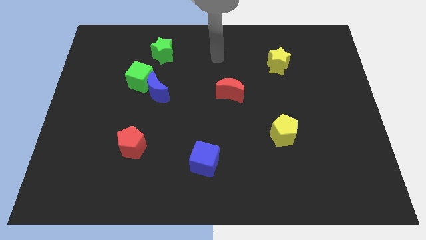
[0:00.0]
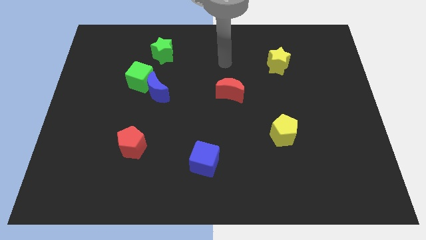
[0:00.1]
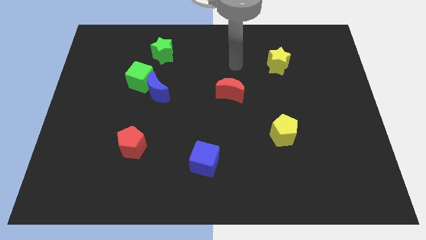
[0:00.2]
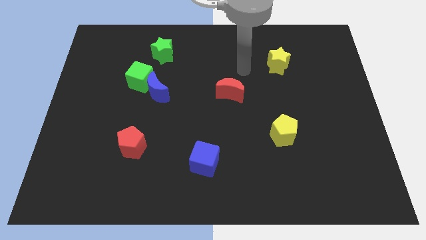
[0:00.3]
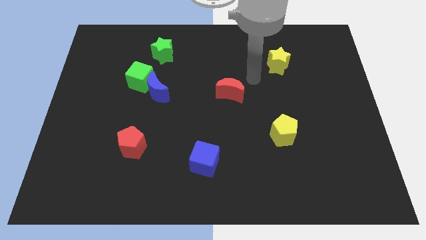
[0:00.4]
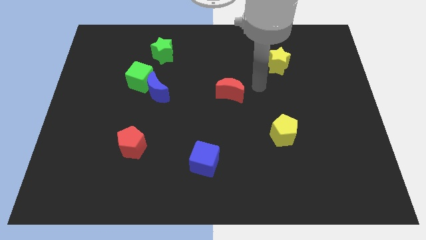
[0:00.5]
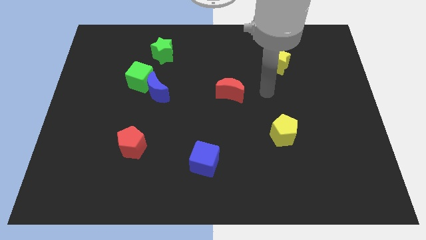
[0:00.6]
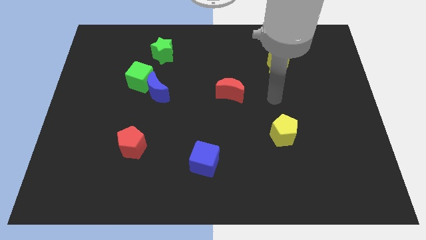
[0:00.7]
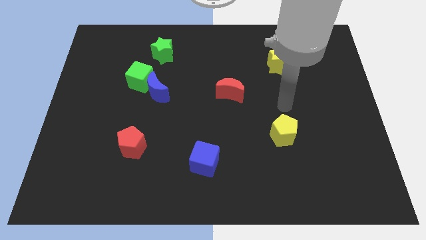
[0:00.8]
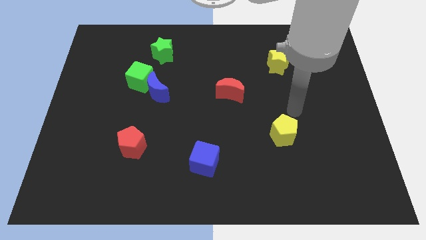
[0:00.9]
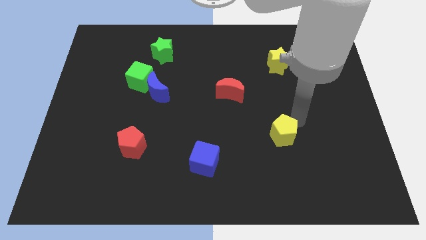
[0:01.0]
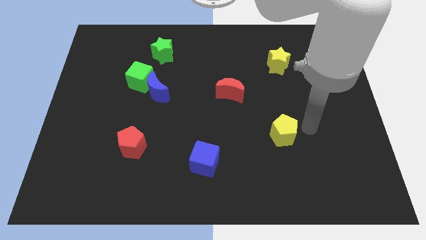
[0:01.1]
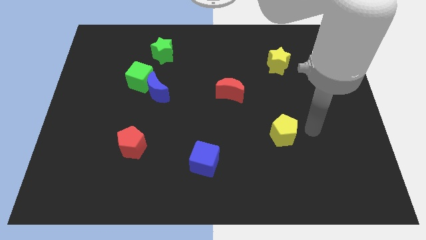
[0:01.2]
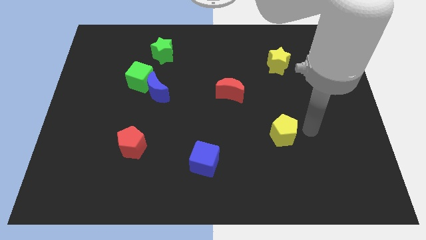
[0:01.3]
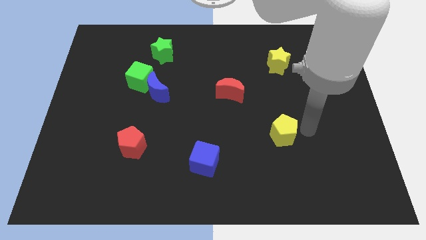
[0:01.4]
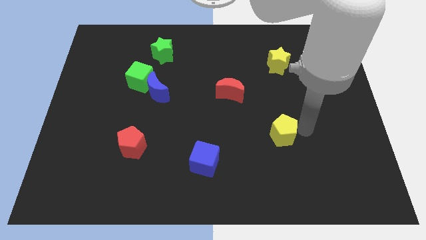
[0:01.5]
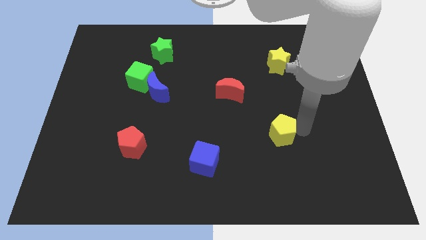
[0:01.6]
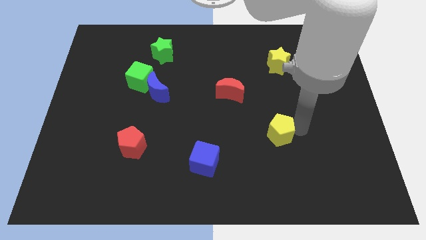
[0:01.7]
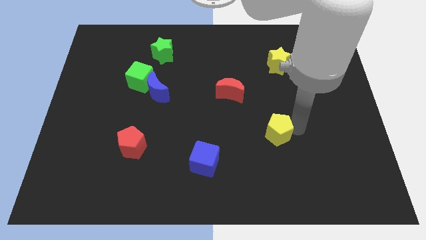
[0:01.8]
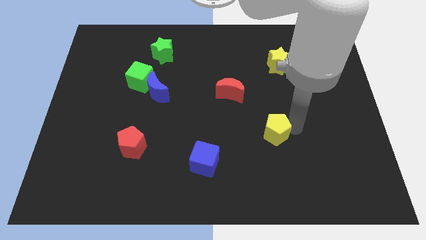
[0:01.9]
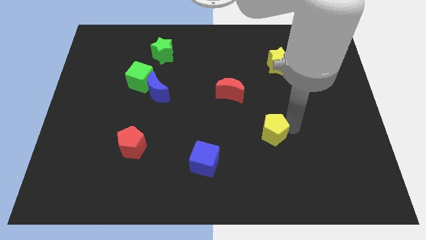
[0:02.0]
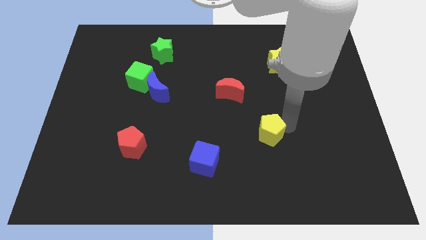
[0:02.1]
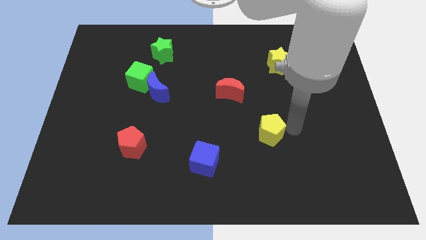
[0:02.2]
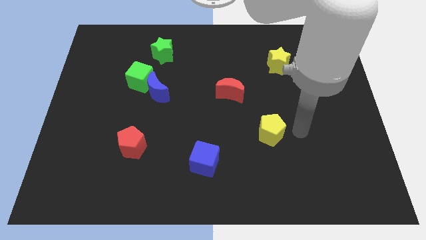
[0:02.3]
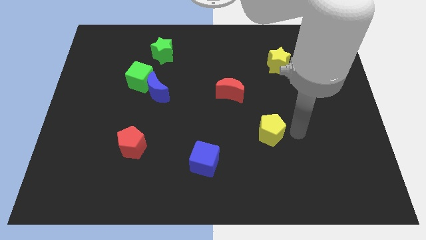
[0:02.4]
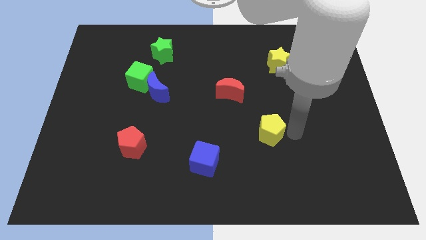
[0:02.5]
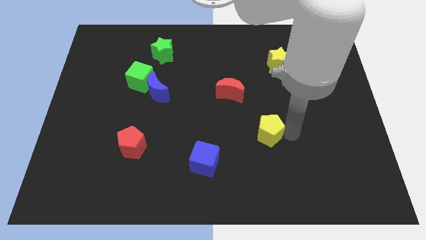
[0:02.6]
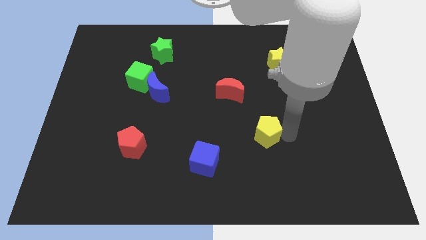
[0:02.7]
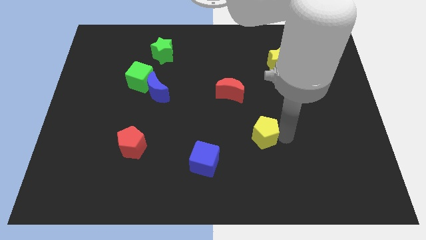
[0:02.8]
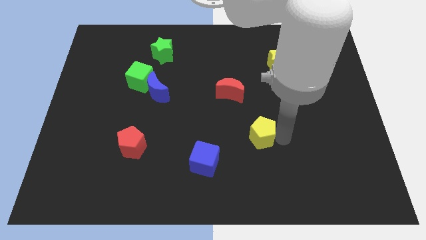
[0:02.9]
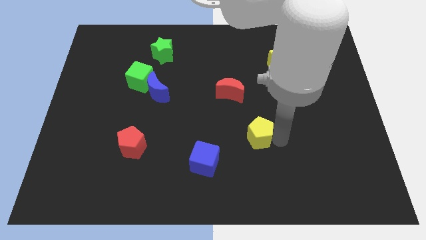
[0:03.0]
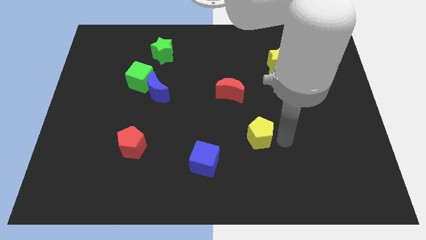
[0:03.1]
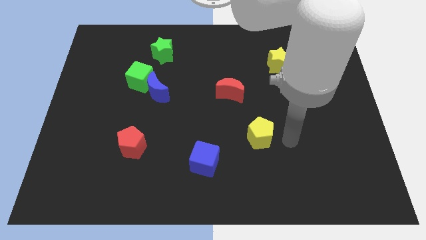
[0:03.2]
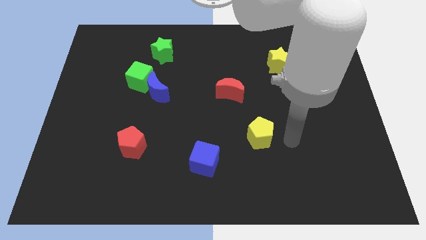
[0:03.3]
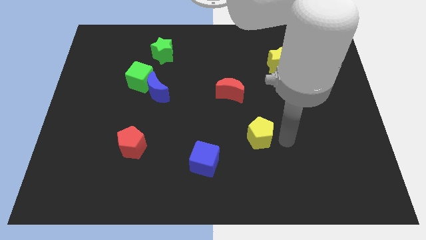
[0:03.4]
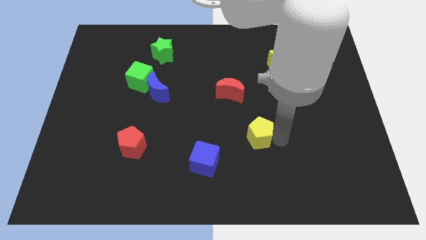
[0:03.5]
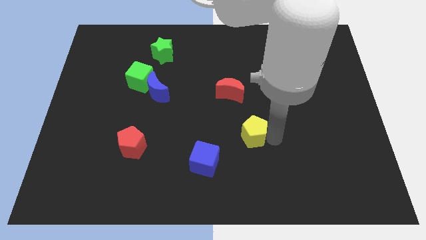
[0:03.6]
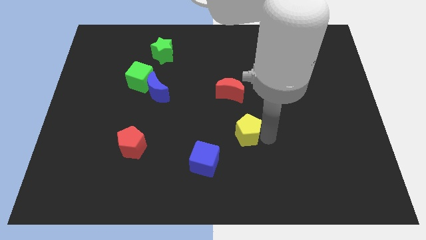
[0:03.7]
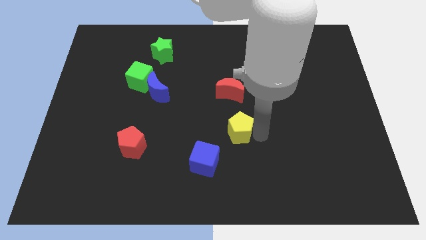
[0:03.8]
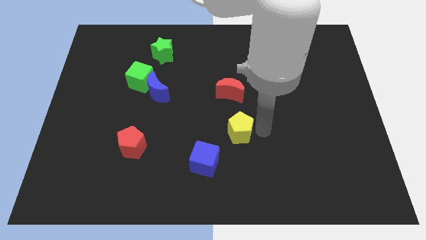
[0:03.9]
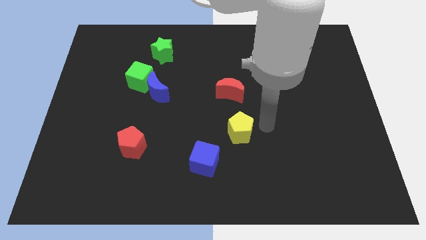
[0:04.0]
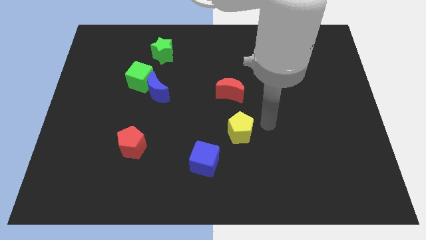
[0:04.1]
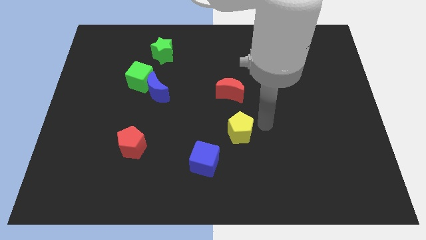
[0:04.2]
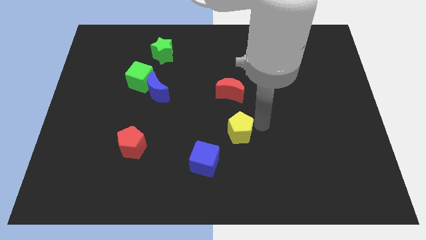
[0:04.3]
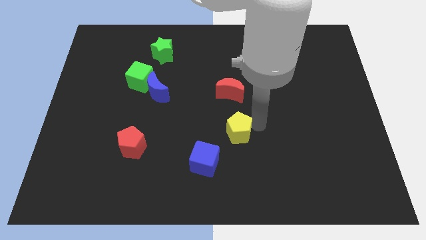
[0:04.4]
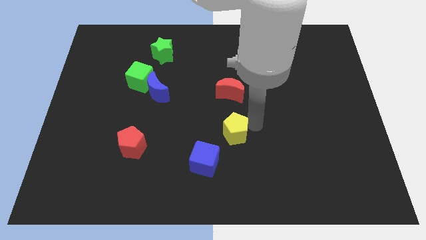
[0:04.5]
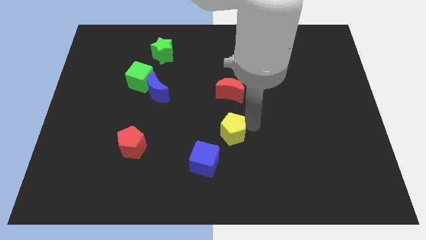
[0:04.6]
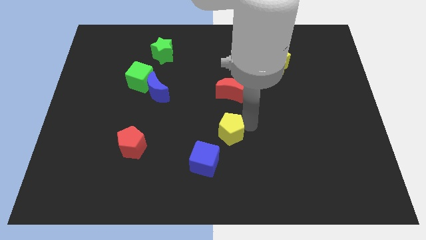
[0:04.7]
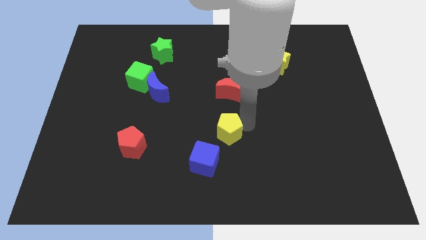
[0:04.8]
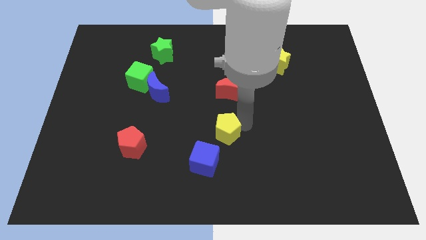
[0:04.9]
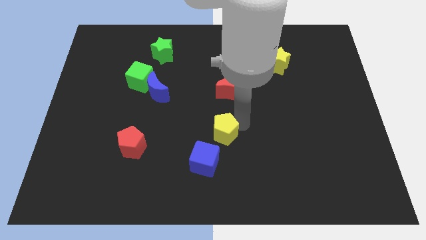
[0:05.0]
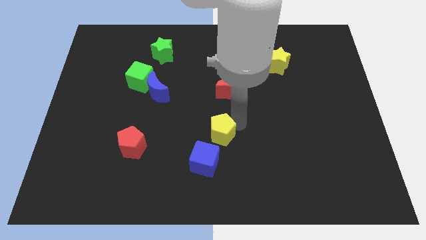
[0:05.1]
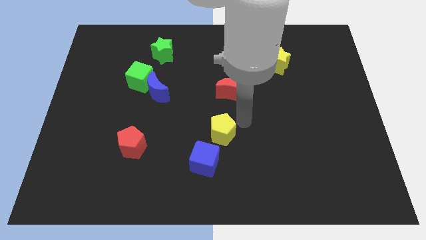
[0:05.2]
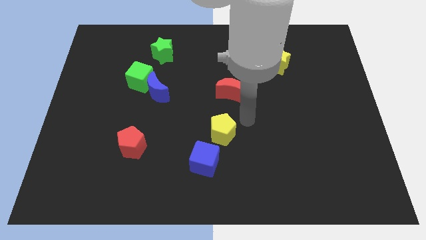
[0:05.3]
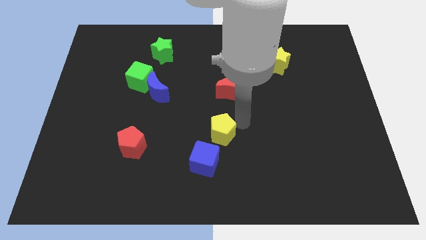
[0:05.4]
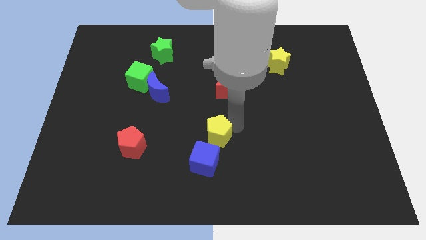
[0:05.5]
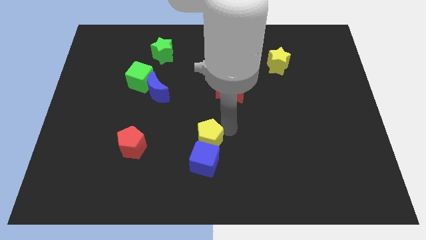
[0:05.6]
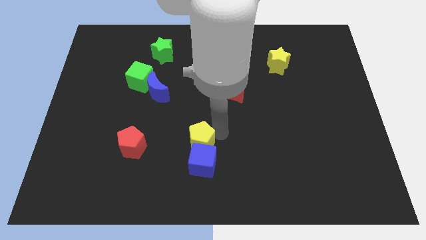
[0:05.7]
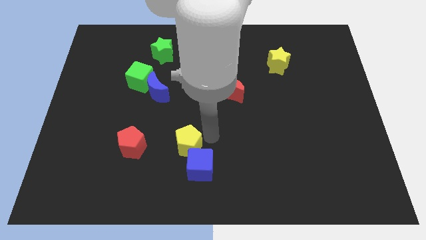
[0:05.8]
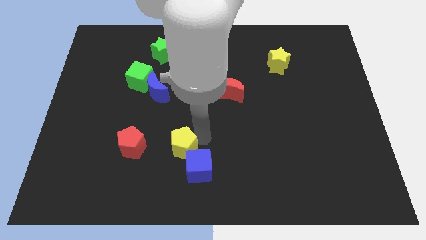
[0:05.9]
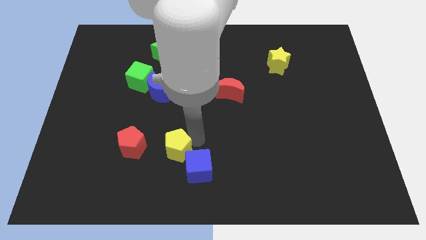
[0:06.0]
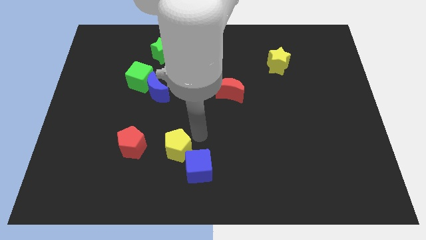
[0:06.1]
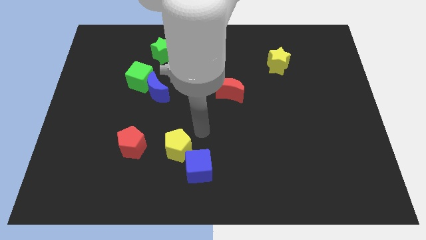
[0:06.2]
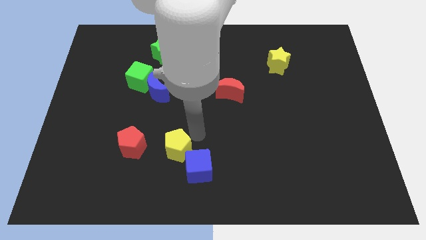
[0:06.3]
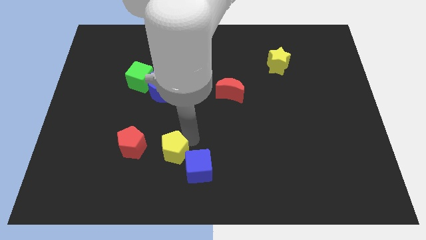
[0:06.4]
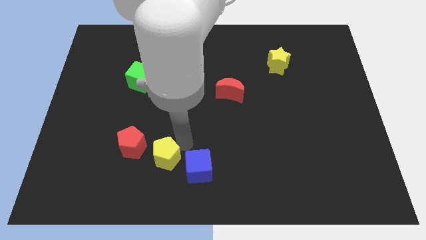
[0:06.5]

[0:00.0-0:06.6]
move the yellow pentagon to the bottom right side of the red pentagon
